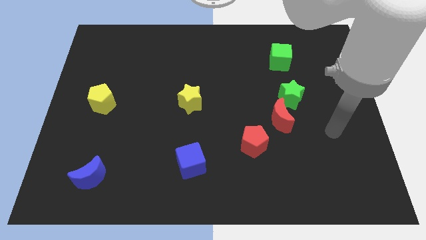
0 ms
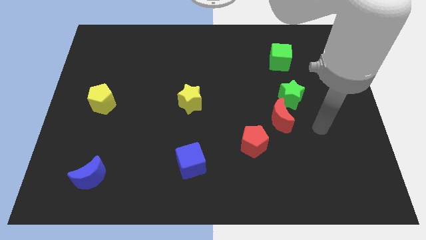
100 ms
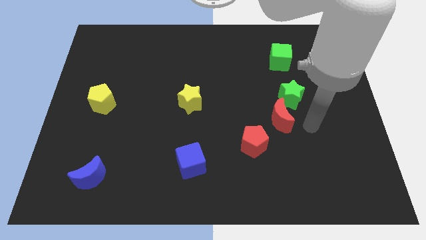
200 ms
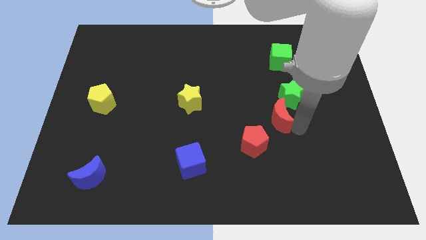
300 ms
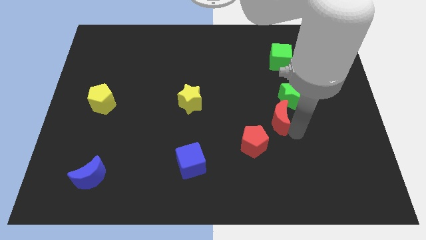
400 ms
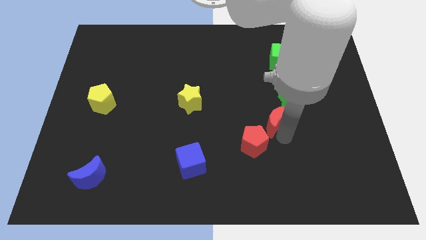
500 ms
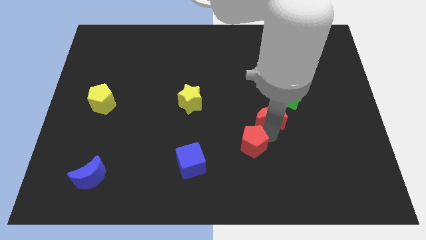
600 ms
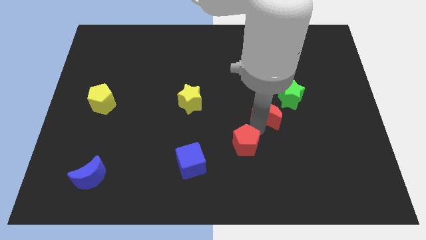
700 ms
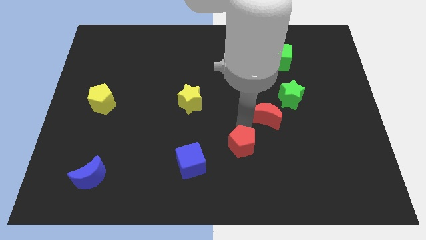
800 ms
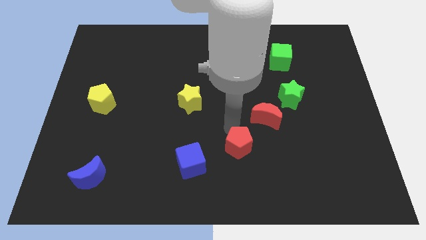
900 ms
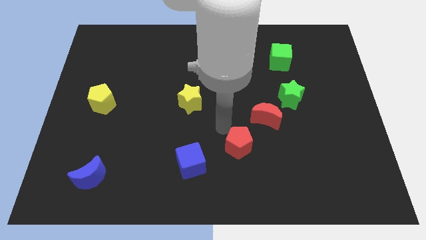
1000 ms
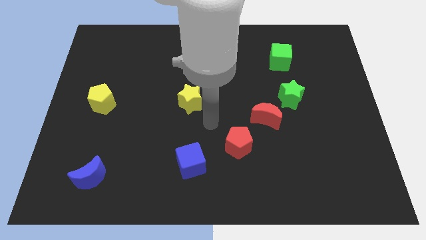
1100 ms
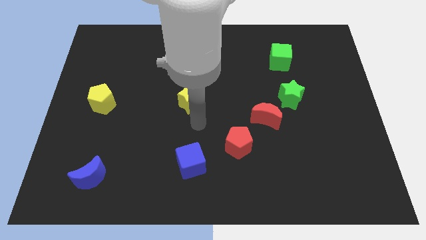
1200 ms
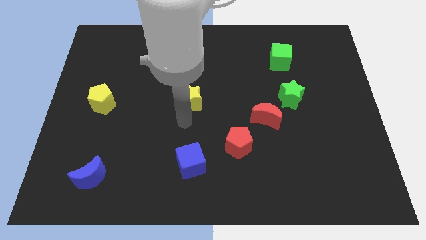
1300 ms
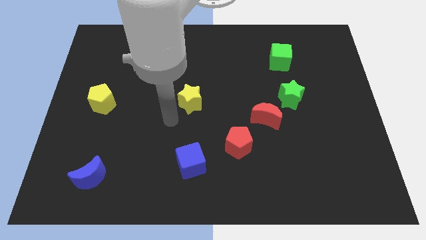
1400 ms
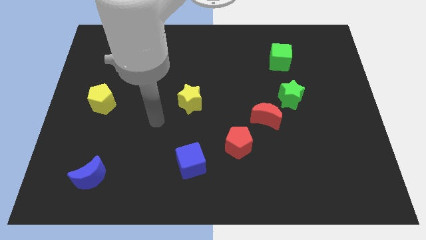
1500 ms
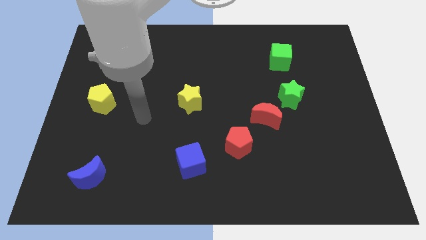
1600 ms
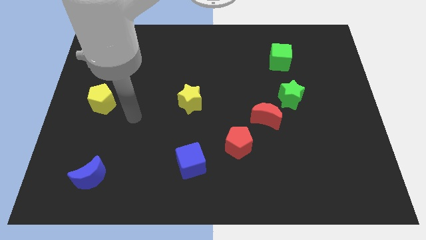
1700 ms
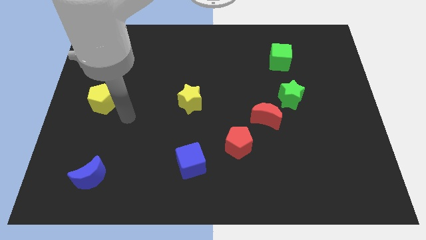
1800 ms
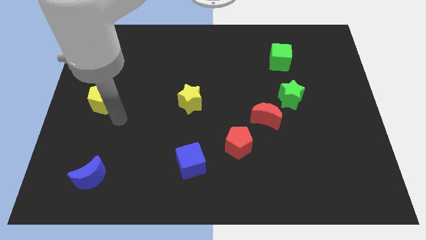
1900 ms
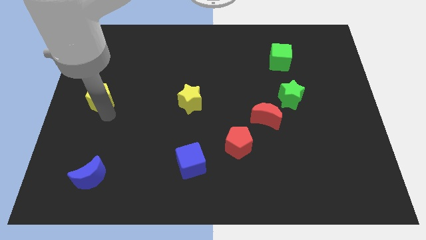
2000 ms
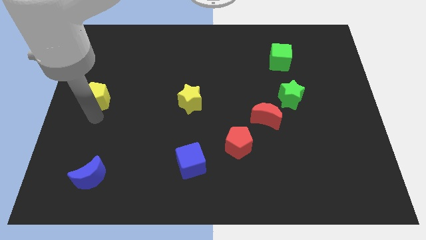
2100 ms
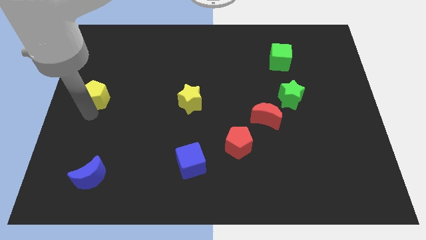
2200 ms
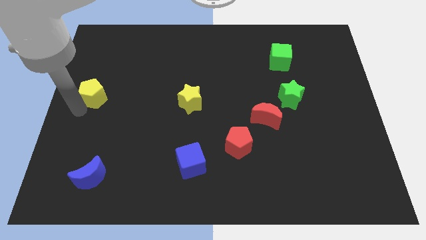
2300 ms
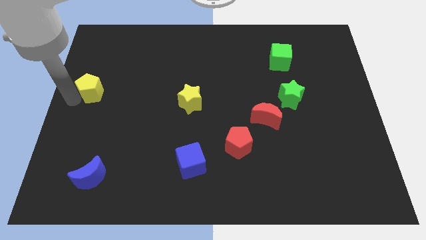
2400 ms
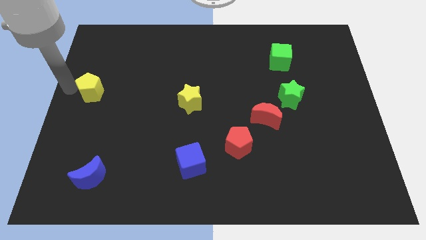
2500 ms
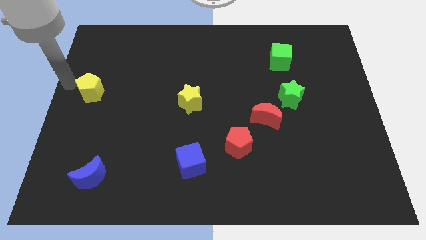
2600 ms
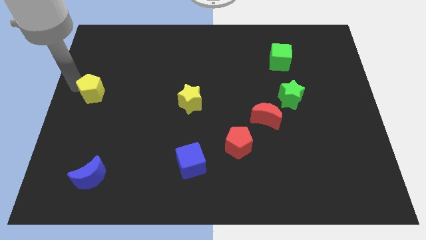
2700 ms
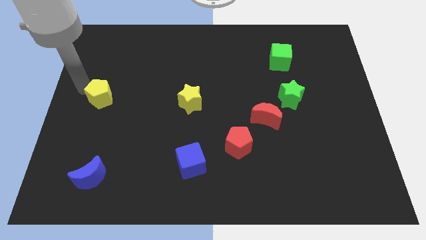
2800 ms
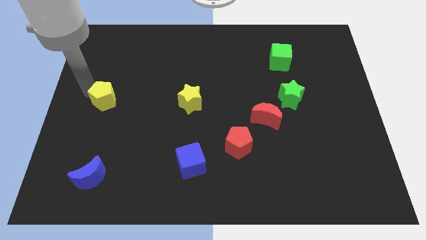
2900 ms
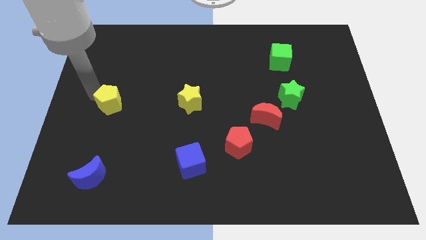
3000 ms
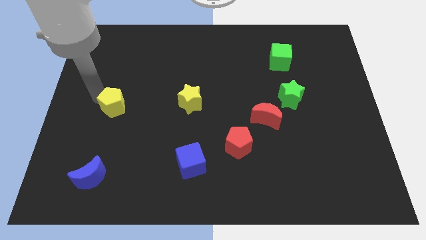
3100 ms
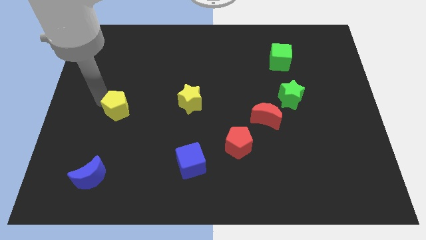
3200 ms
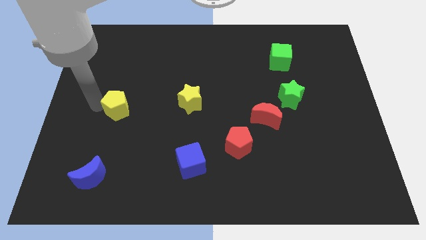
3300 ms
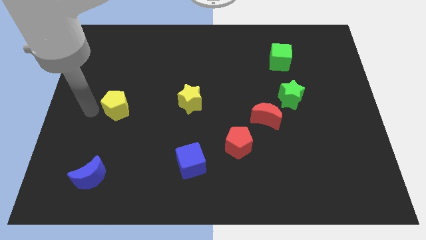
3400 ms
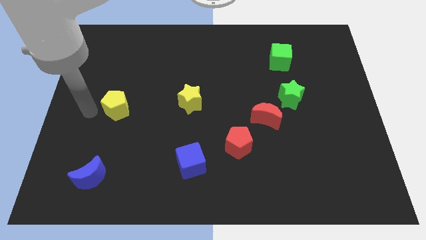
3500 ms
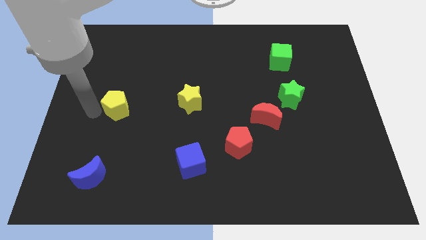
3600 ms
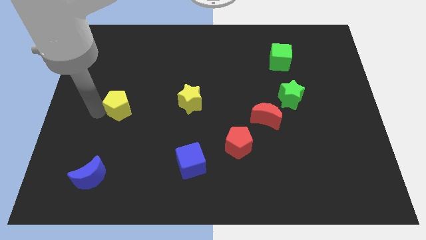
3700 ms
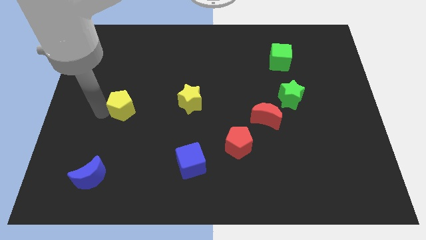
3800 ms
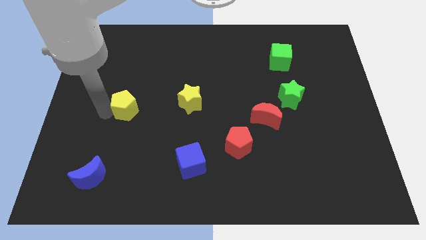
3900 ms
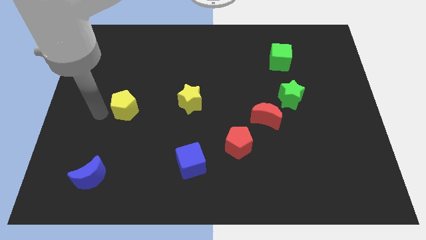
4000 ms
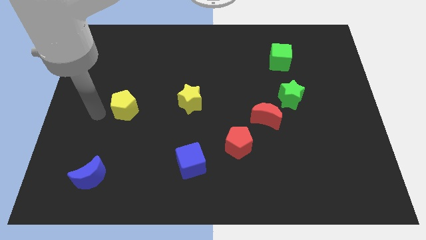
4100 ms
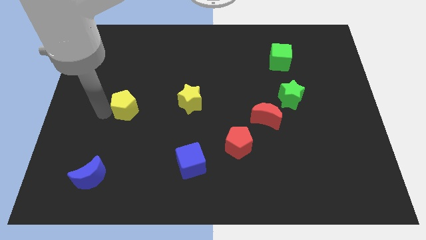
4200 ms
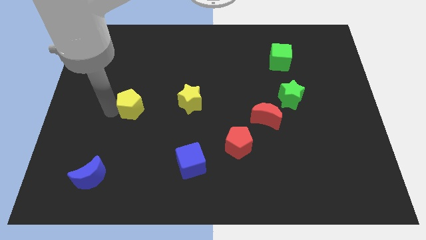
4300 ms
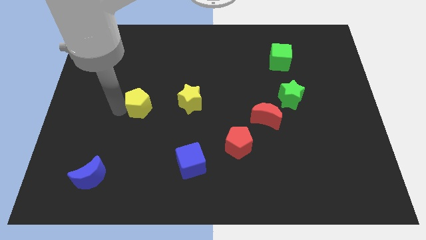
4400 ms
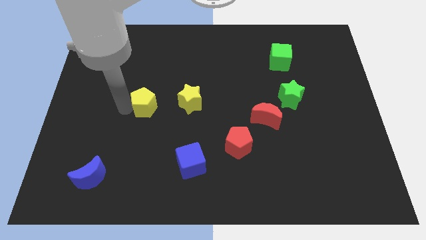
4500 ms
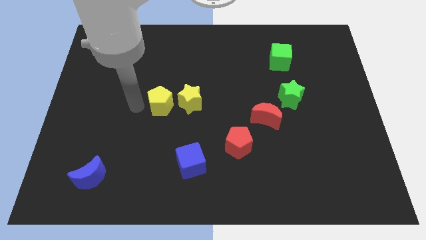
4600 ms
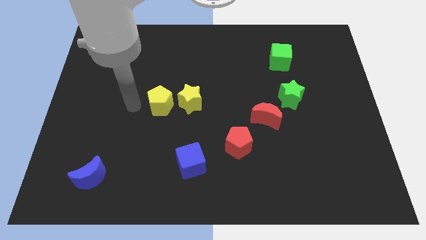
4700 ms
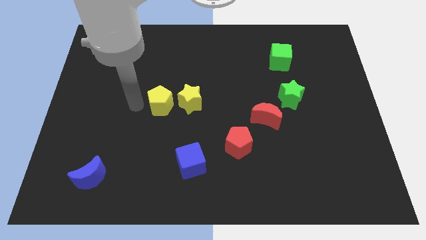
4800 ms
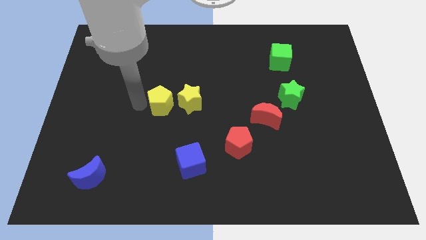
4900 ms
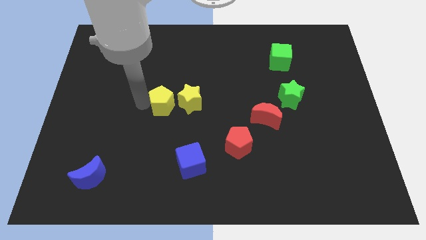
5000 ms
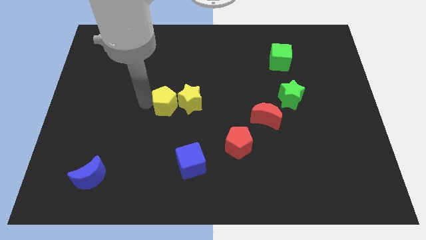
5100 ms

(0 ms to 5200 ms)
push the yellow pentagon towards the yellow star

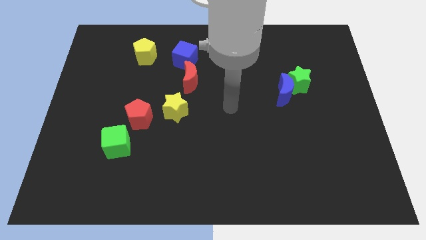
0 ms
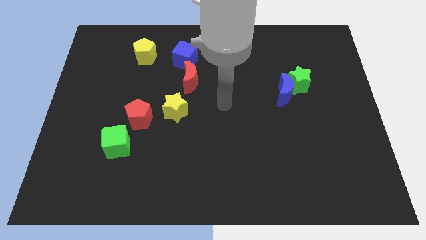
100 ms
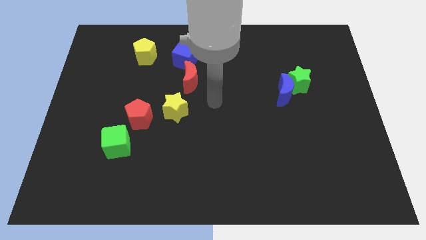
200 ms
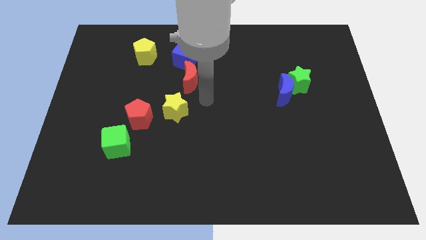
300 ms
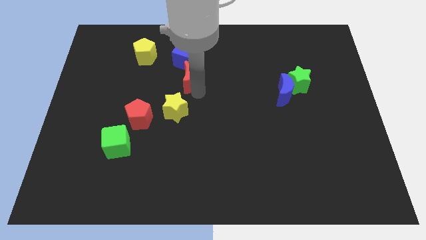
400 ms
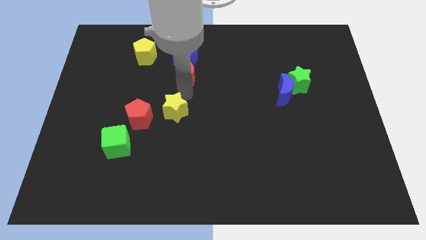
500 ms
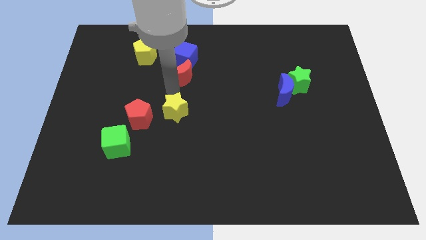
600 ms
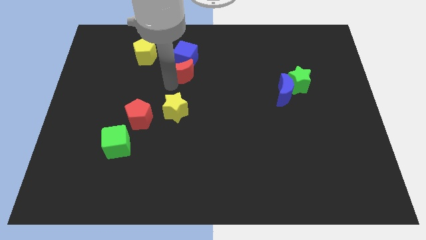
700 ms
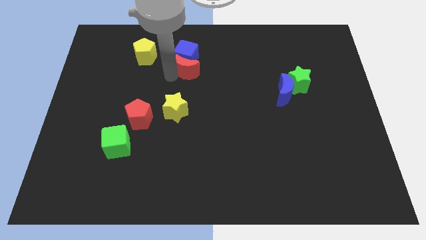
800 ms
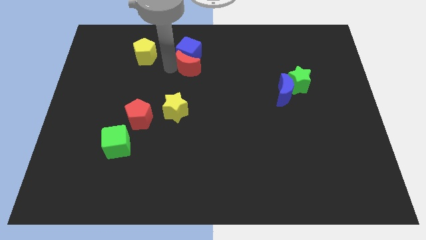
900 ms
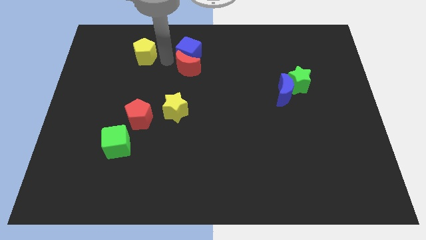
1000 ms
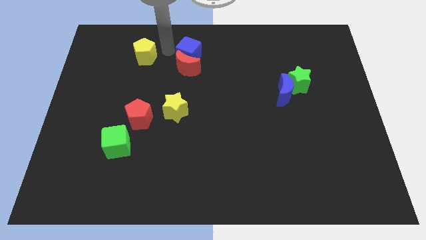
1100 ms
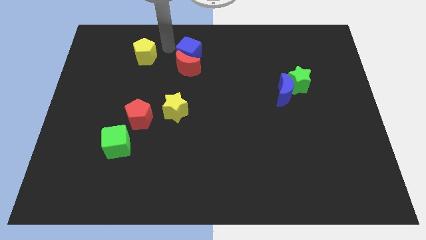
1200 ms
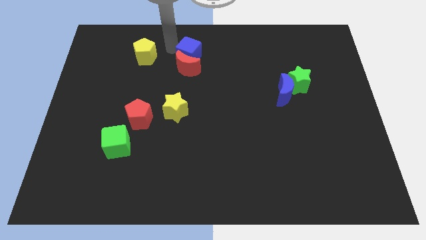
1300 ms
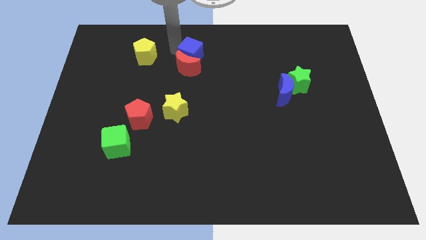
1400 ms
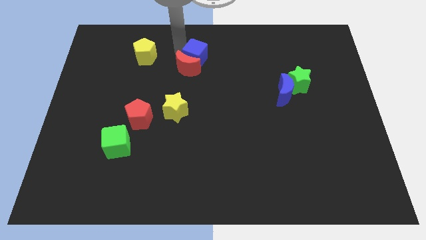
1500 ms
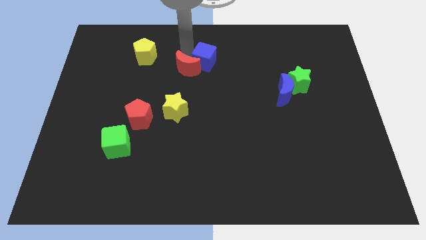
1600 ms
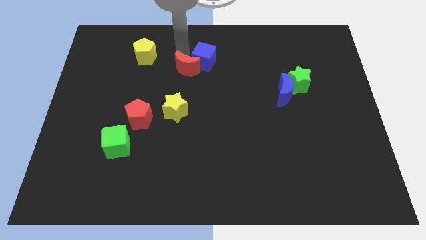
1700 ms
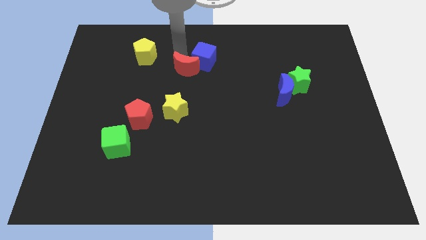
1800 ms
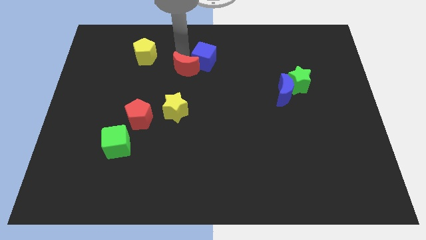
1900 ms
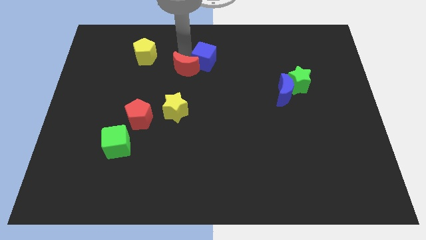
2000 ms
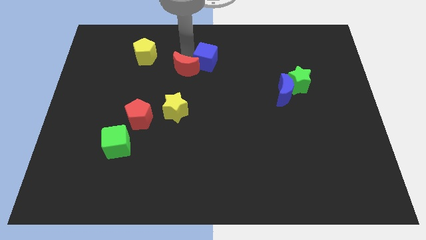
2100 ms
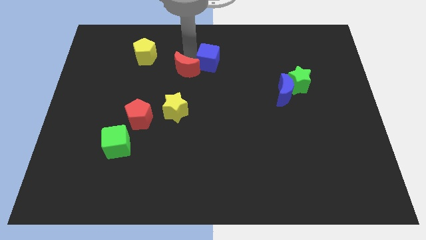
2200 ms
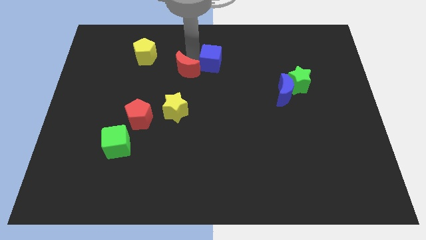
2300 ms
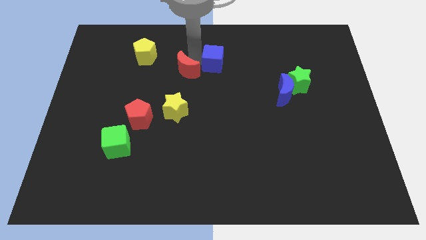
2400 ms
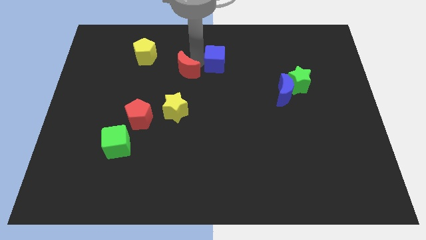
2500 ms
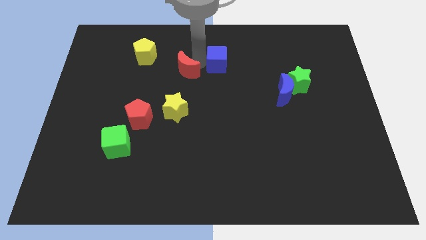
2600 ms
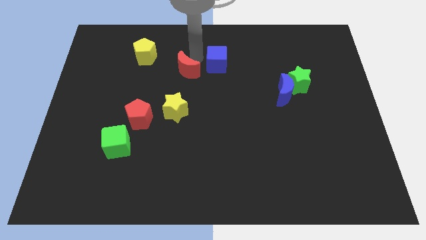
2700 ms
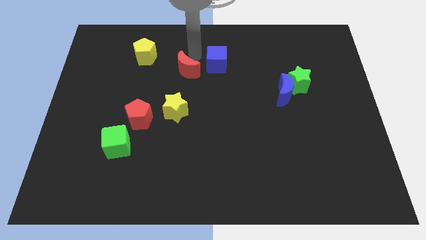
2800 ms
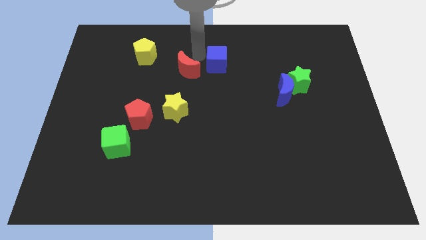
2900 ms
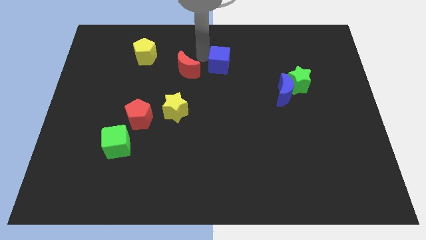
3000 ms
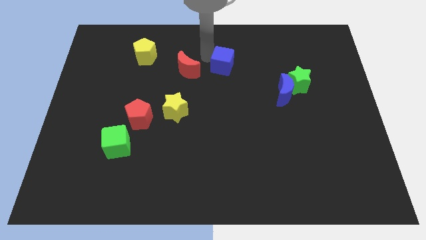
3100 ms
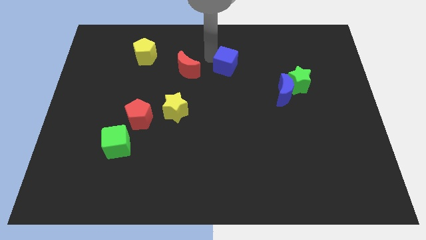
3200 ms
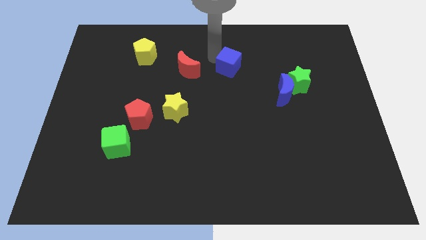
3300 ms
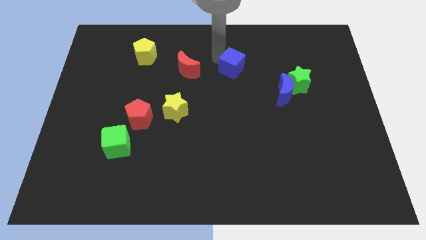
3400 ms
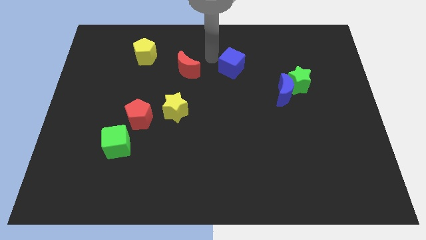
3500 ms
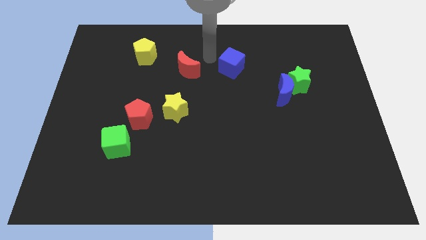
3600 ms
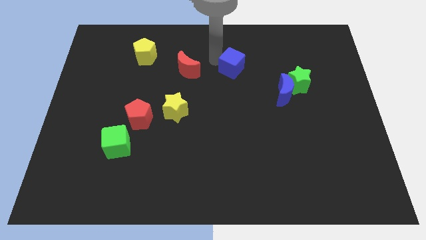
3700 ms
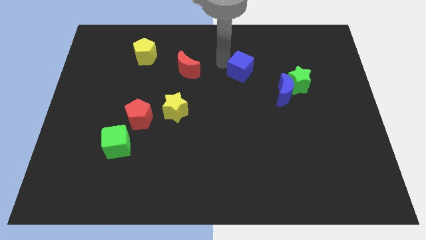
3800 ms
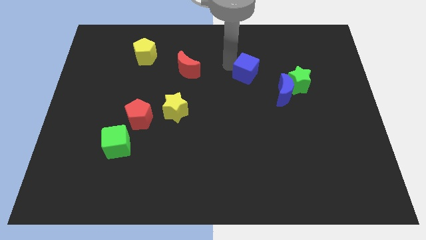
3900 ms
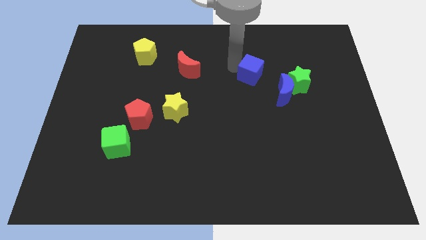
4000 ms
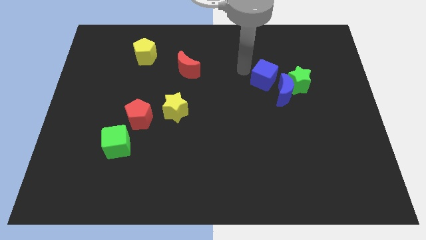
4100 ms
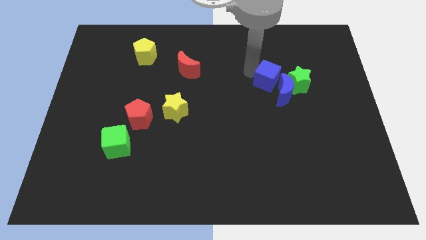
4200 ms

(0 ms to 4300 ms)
slide the blue cube next to the blue moon
